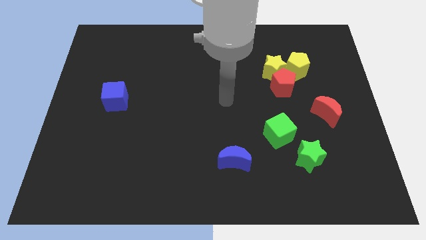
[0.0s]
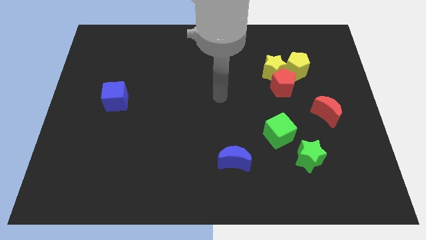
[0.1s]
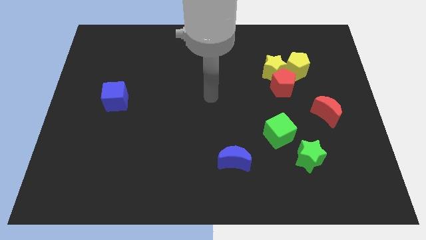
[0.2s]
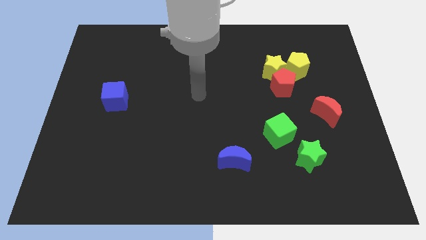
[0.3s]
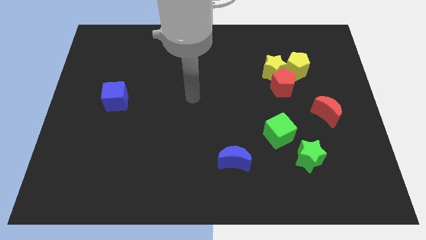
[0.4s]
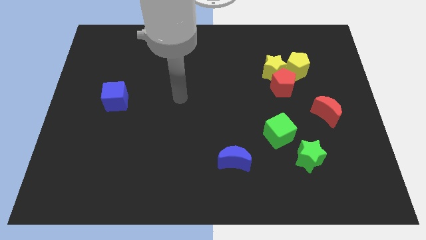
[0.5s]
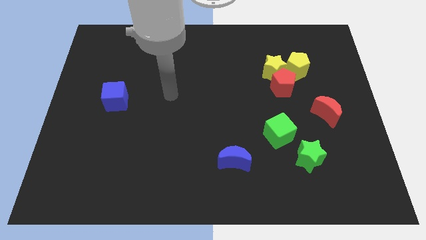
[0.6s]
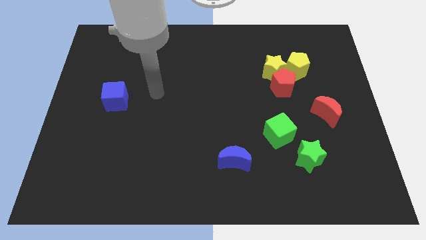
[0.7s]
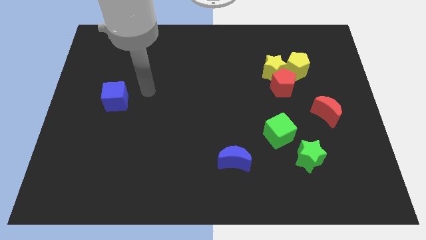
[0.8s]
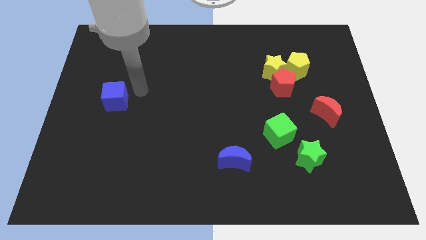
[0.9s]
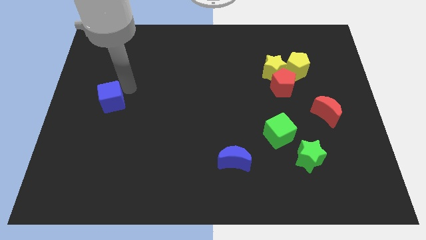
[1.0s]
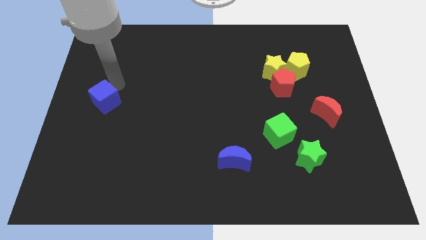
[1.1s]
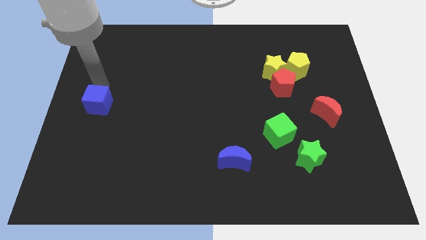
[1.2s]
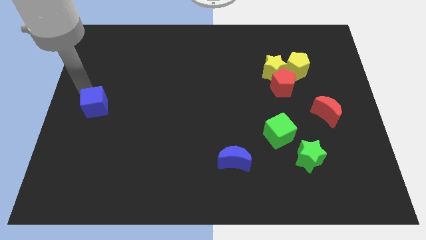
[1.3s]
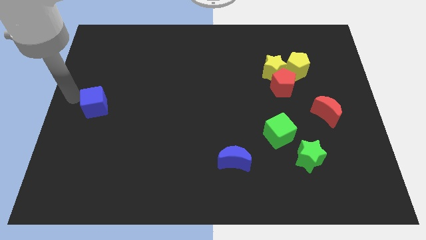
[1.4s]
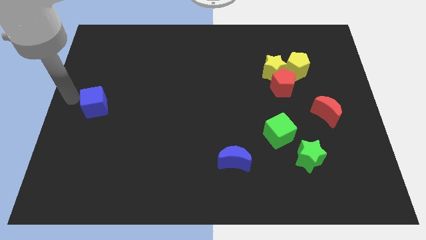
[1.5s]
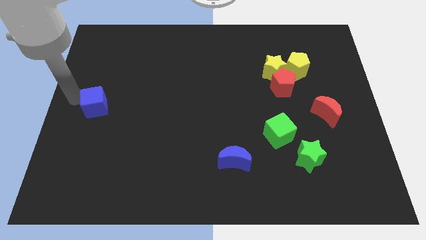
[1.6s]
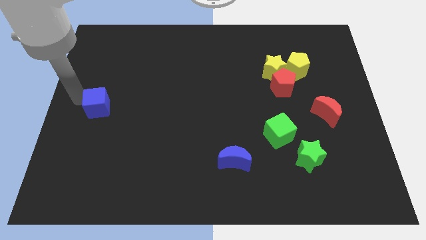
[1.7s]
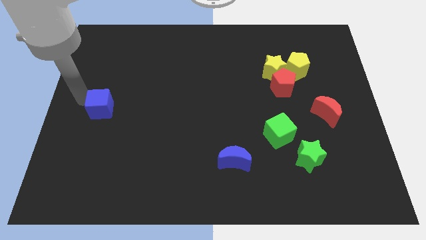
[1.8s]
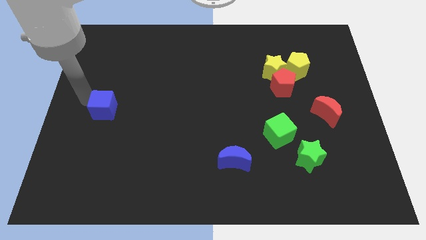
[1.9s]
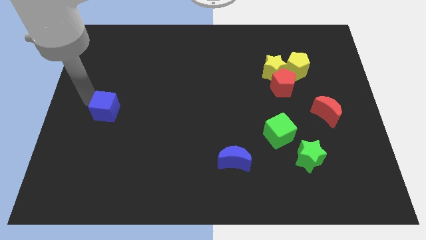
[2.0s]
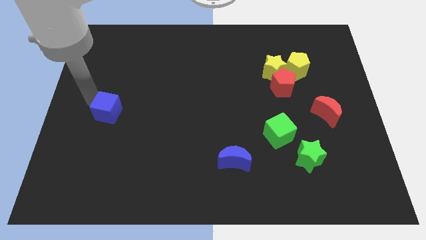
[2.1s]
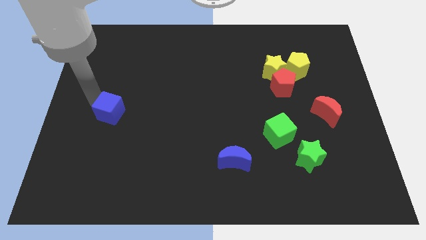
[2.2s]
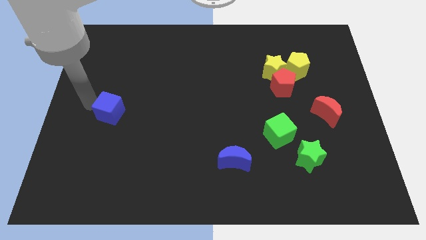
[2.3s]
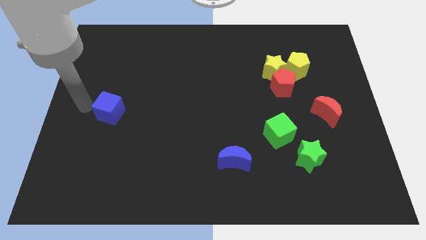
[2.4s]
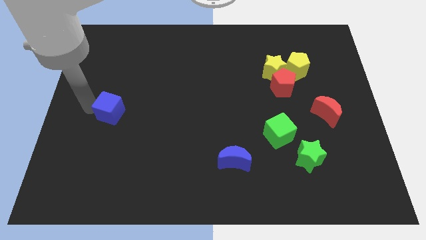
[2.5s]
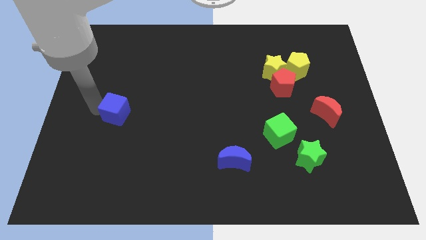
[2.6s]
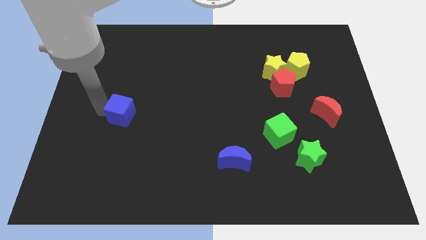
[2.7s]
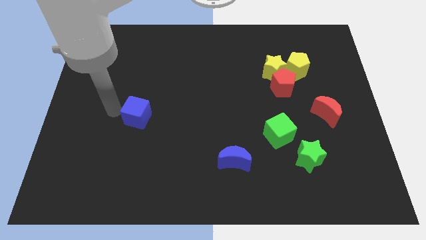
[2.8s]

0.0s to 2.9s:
slightly slide the blue cube diagonally downwards and right

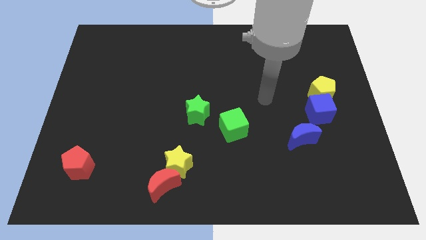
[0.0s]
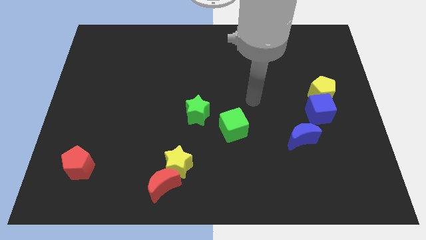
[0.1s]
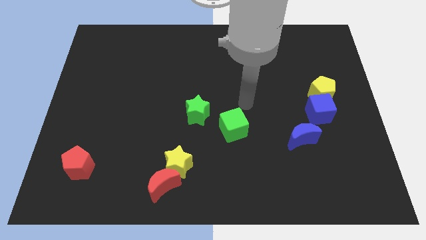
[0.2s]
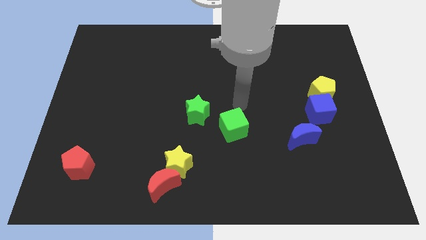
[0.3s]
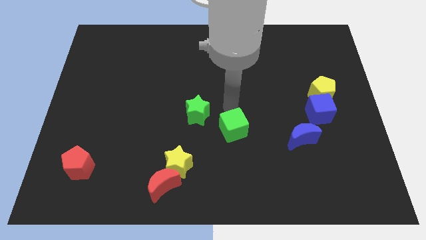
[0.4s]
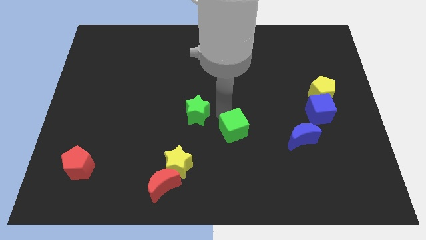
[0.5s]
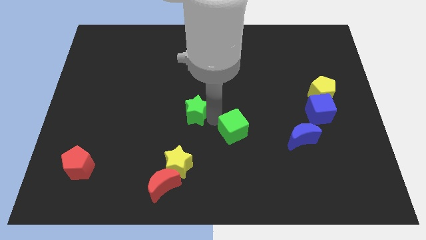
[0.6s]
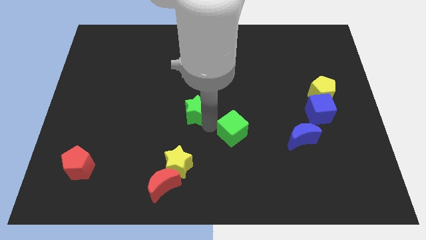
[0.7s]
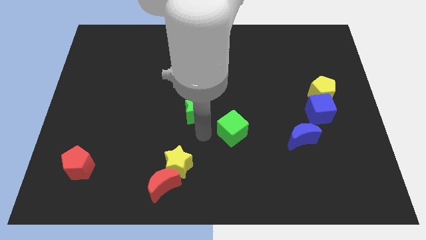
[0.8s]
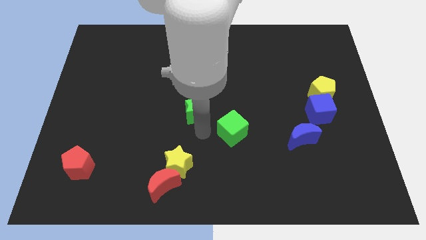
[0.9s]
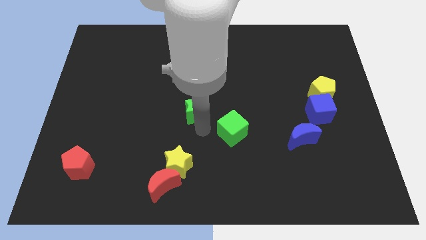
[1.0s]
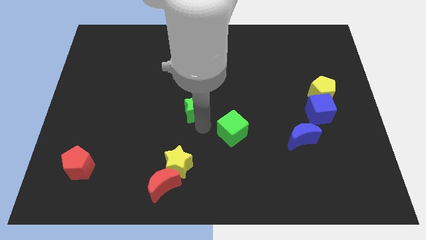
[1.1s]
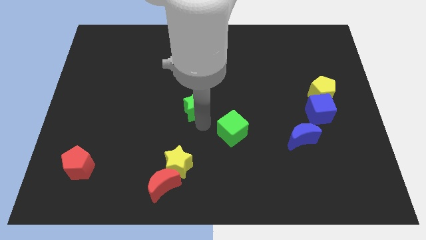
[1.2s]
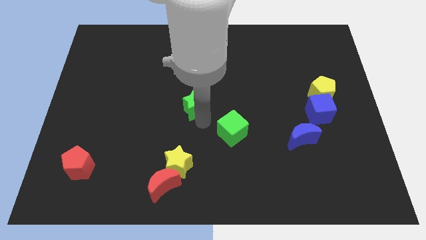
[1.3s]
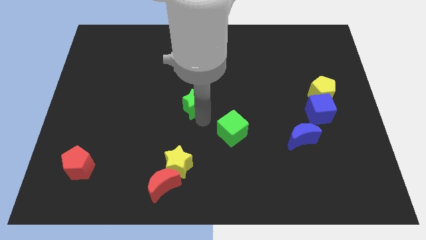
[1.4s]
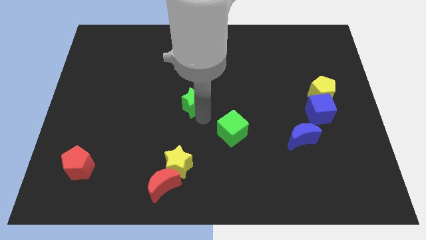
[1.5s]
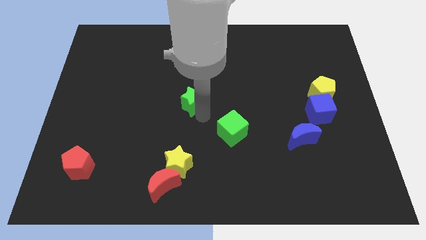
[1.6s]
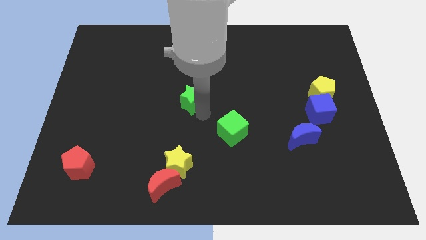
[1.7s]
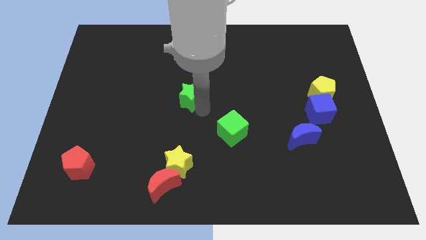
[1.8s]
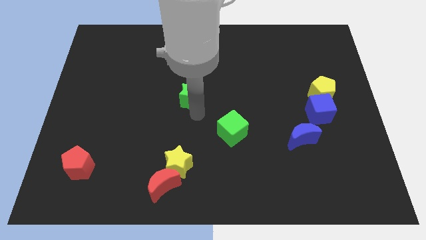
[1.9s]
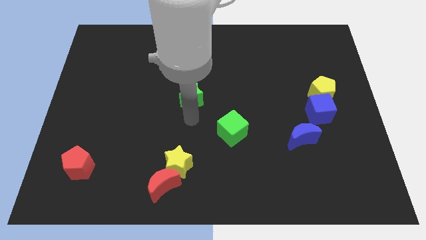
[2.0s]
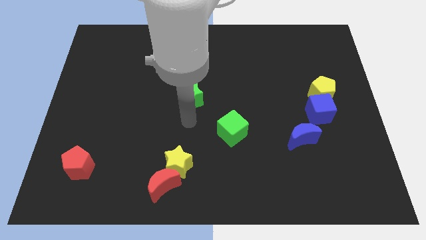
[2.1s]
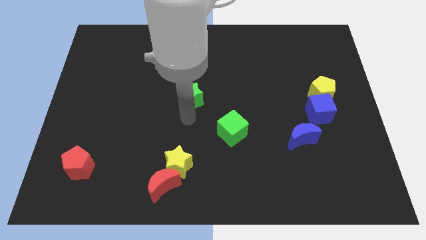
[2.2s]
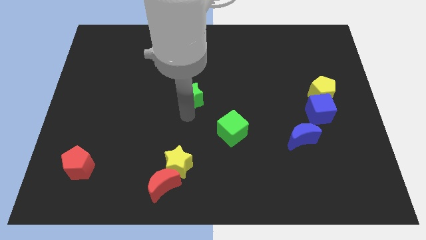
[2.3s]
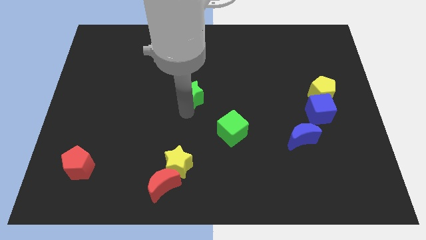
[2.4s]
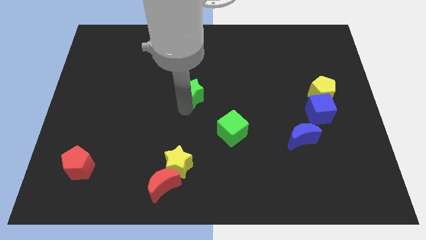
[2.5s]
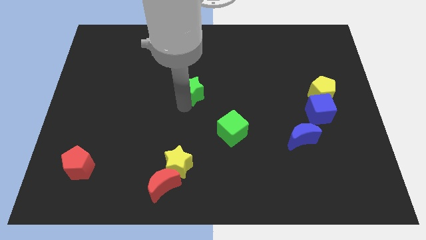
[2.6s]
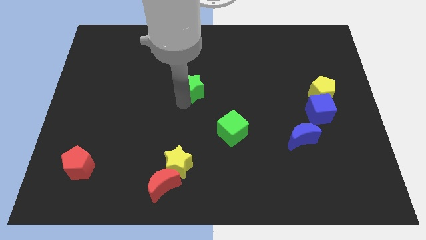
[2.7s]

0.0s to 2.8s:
move the green star somewhat upwards

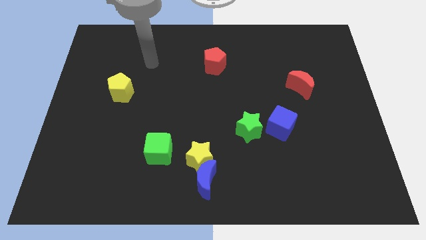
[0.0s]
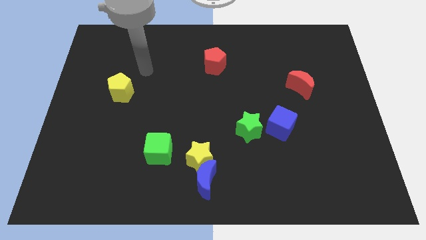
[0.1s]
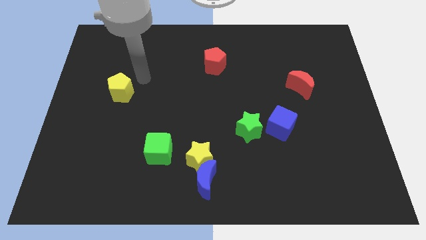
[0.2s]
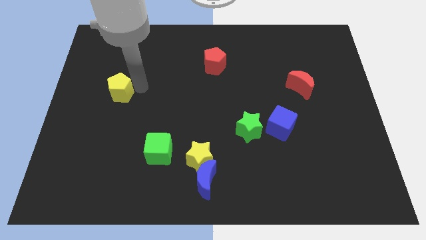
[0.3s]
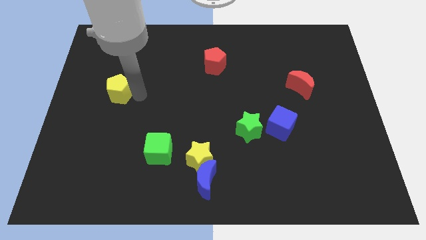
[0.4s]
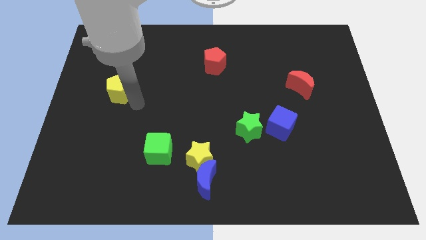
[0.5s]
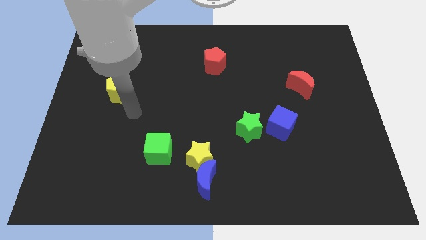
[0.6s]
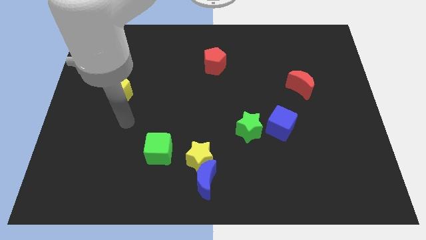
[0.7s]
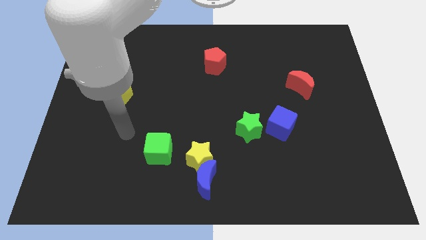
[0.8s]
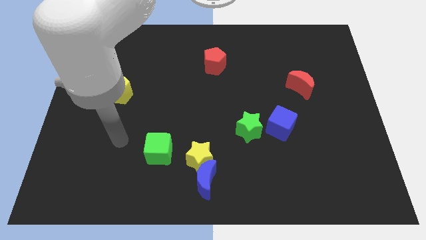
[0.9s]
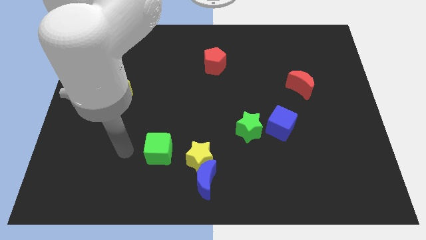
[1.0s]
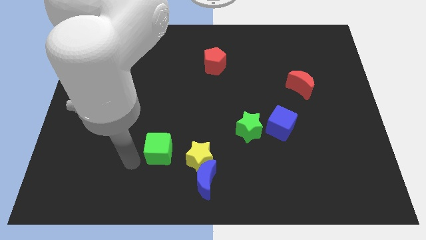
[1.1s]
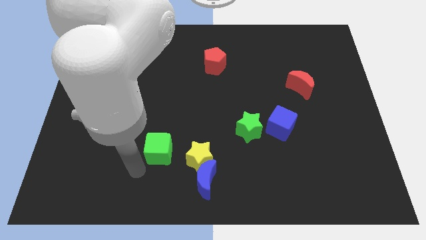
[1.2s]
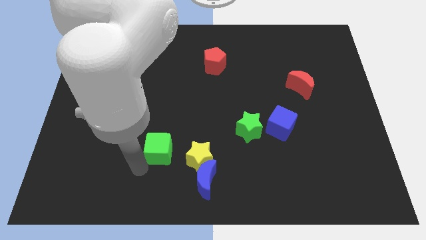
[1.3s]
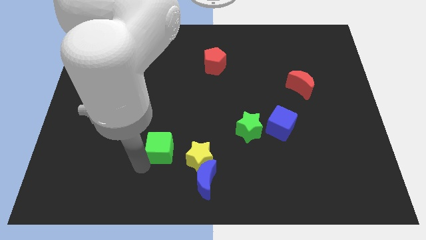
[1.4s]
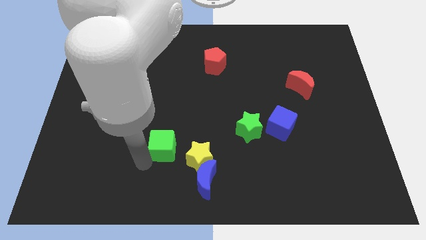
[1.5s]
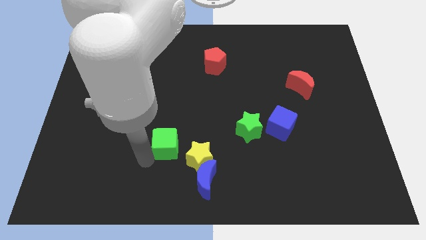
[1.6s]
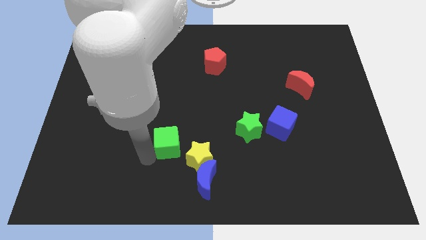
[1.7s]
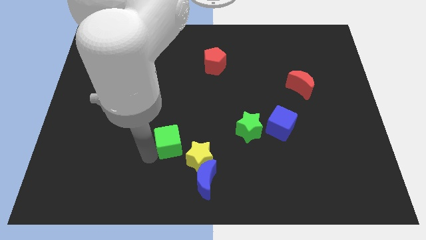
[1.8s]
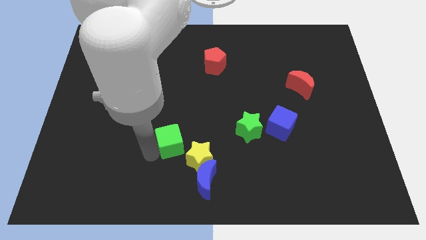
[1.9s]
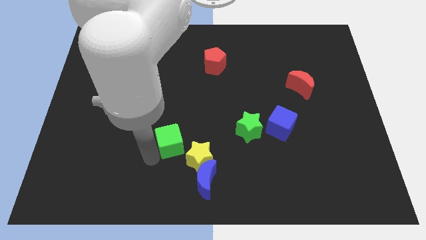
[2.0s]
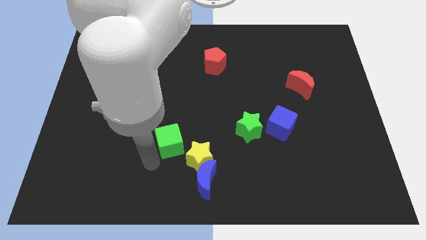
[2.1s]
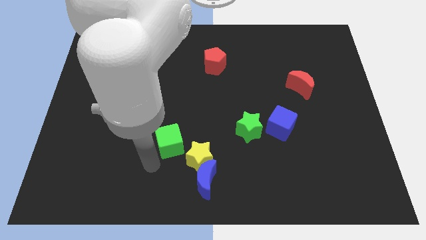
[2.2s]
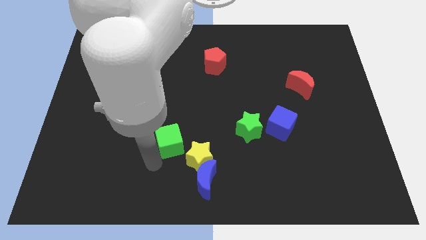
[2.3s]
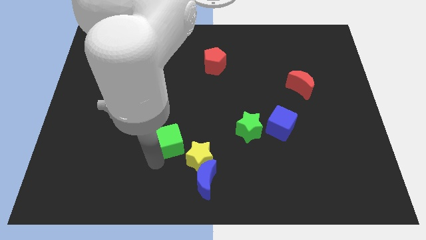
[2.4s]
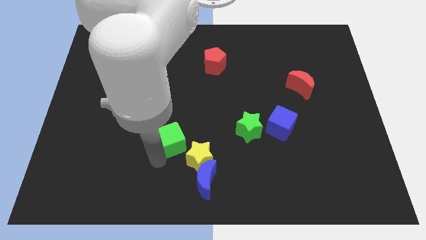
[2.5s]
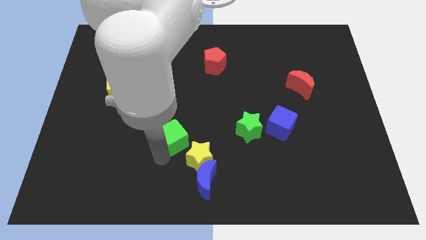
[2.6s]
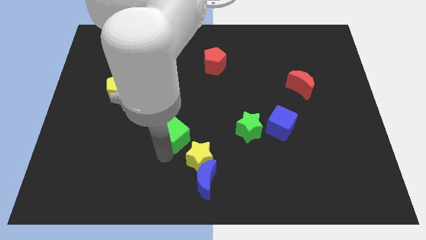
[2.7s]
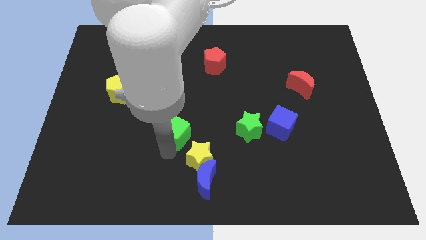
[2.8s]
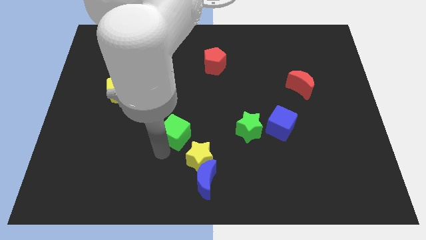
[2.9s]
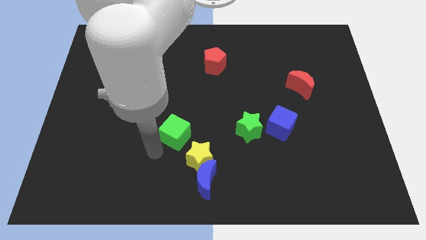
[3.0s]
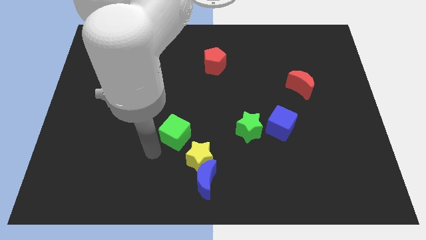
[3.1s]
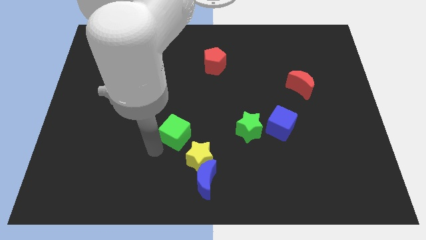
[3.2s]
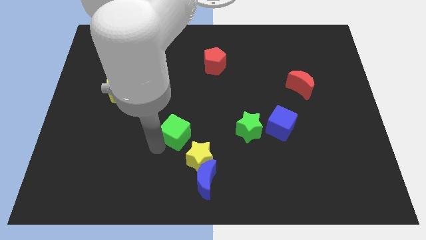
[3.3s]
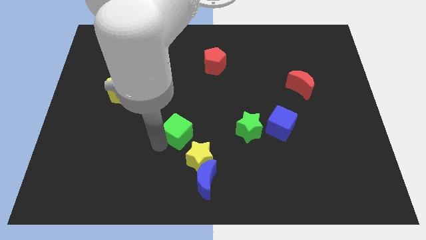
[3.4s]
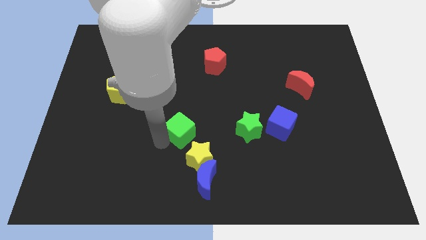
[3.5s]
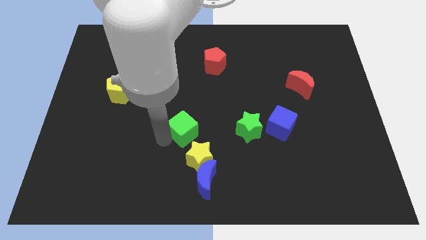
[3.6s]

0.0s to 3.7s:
move the green cube a little upwards and to the right diagonally
